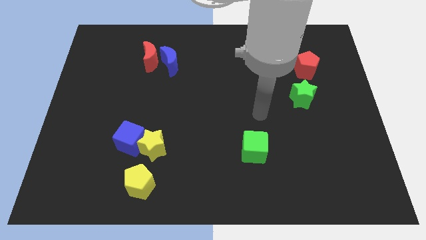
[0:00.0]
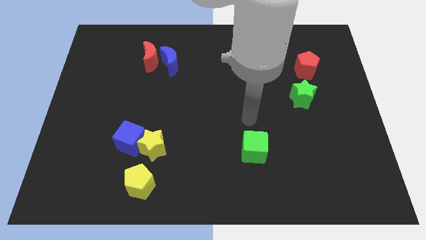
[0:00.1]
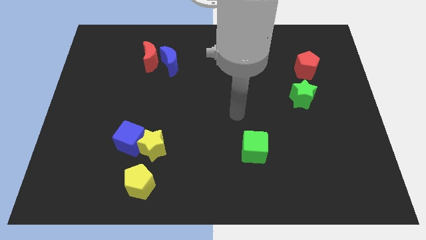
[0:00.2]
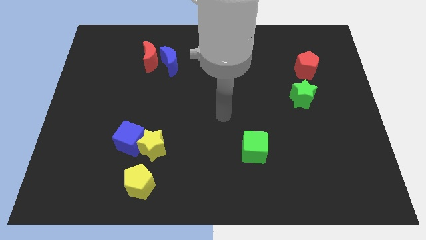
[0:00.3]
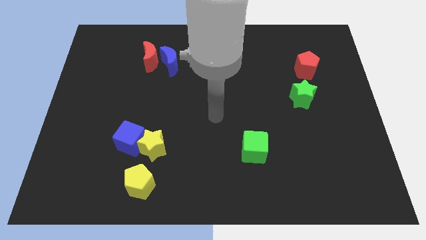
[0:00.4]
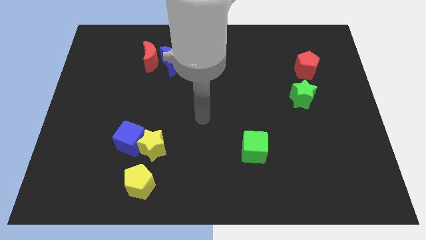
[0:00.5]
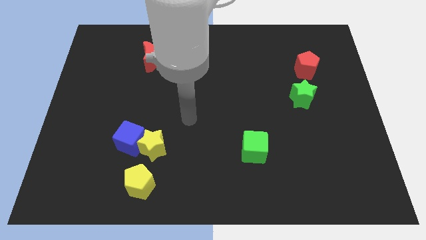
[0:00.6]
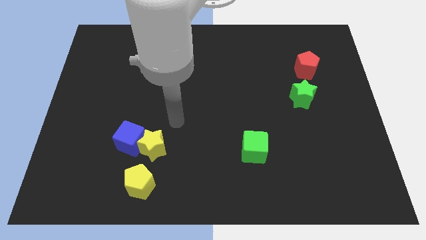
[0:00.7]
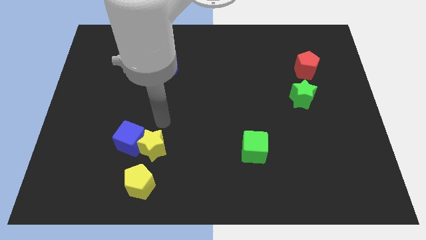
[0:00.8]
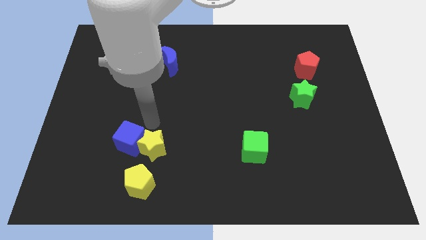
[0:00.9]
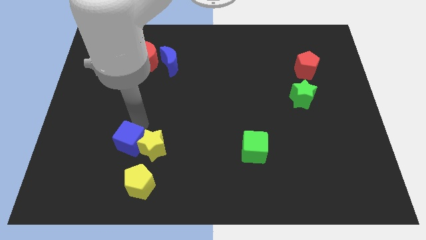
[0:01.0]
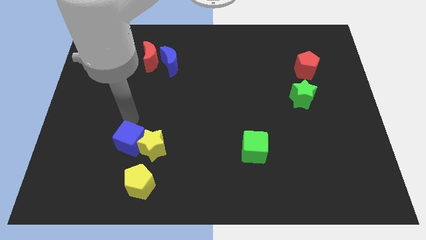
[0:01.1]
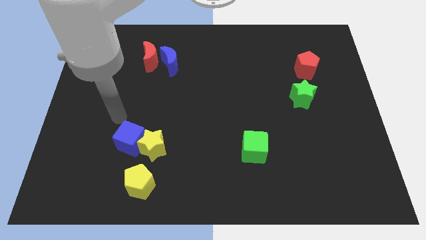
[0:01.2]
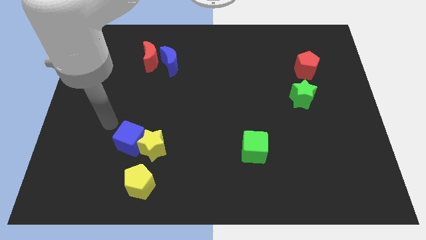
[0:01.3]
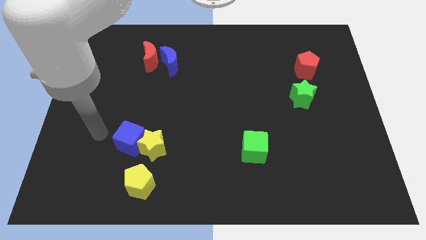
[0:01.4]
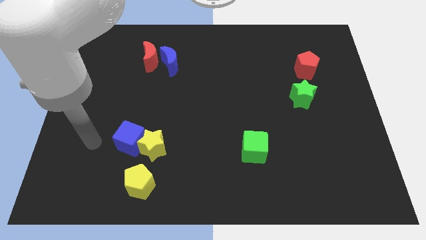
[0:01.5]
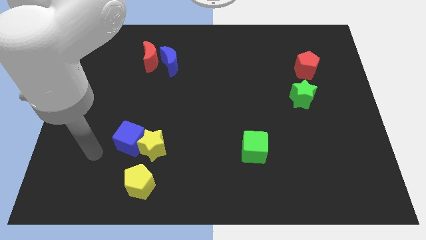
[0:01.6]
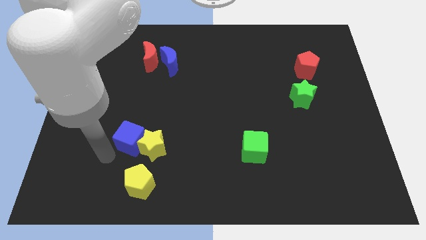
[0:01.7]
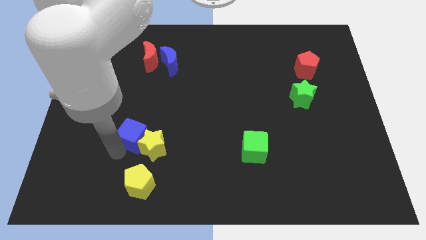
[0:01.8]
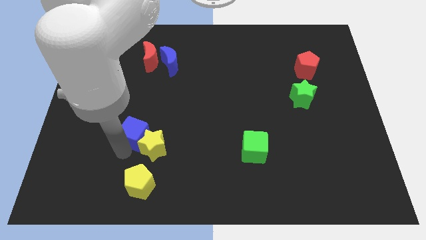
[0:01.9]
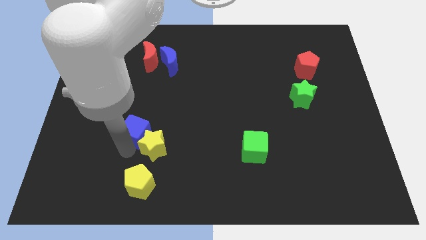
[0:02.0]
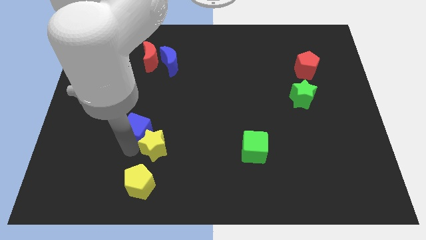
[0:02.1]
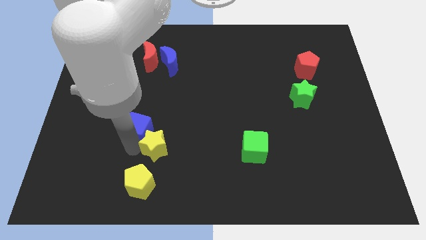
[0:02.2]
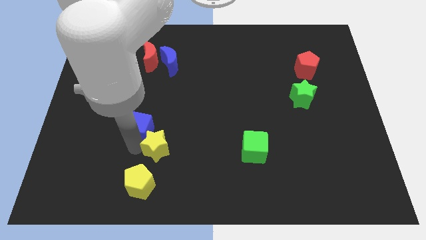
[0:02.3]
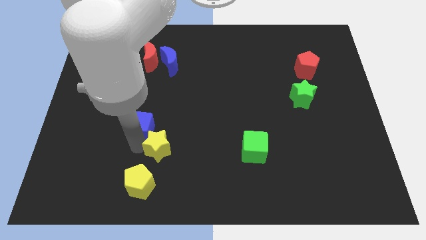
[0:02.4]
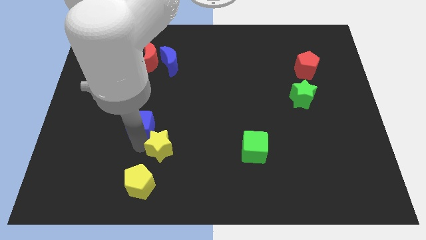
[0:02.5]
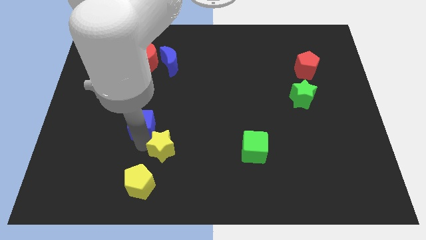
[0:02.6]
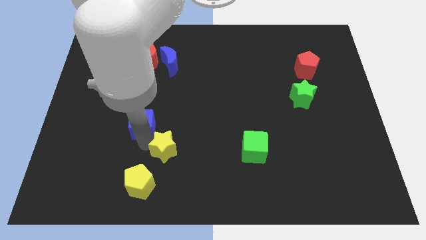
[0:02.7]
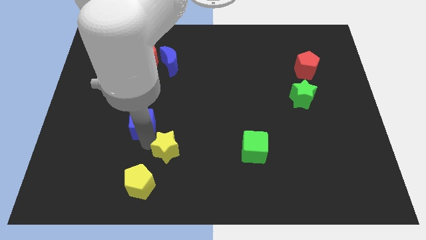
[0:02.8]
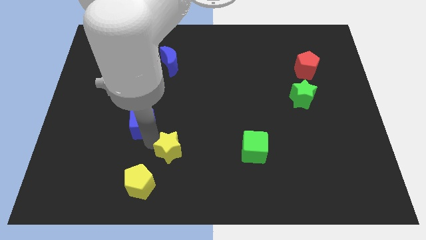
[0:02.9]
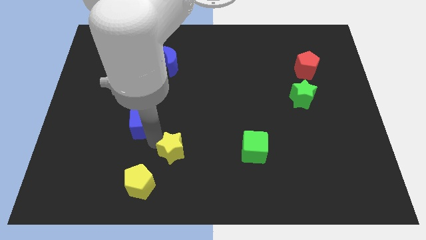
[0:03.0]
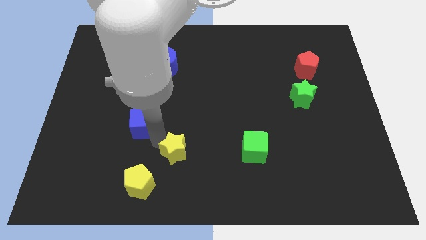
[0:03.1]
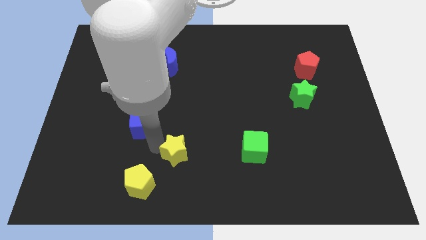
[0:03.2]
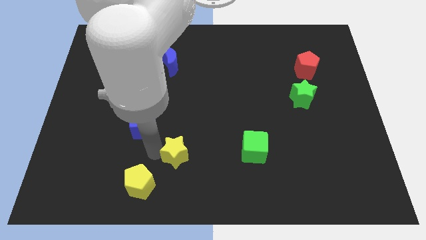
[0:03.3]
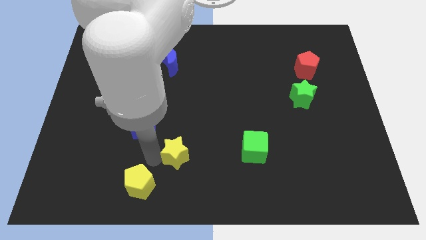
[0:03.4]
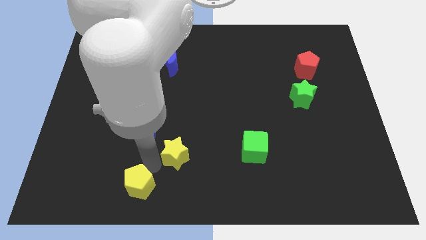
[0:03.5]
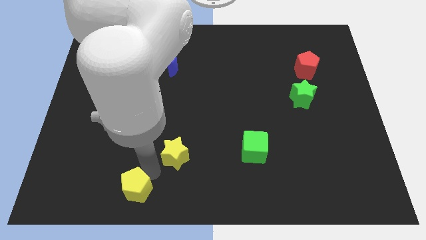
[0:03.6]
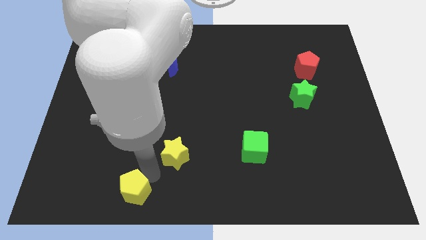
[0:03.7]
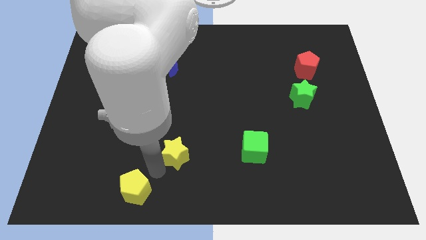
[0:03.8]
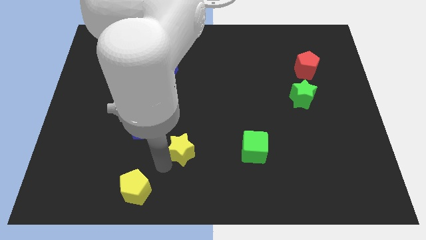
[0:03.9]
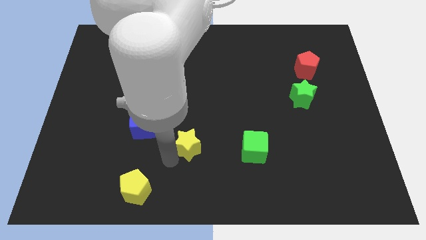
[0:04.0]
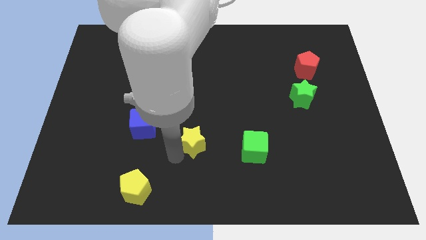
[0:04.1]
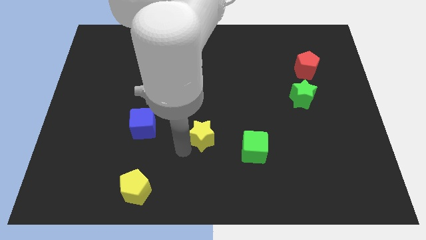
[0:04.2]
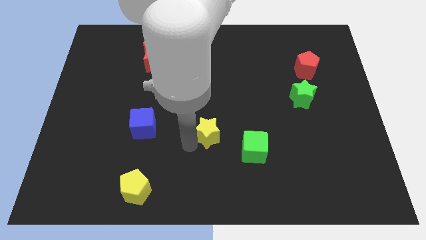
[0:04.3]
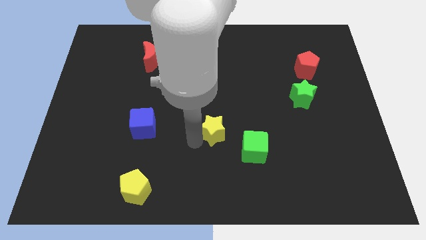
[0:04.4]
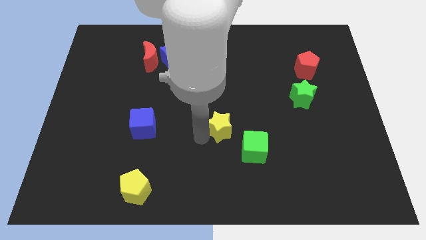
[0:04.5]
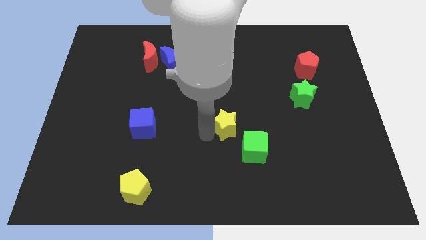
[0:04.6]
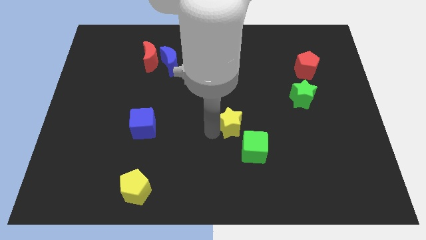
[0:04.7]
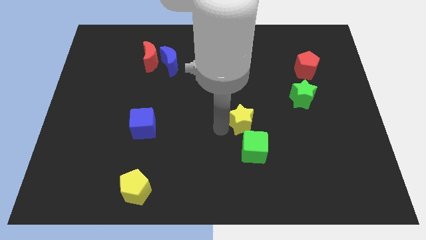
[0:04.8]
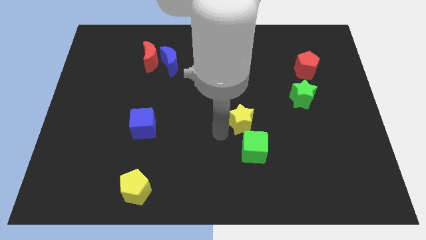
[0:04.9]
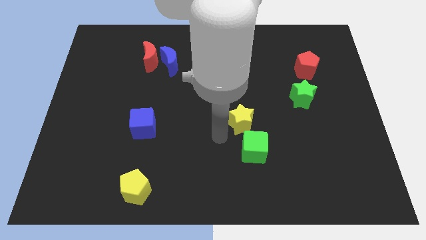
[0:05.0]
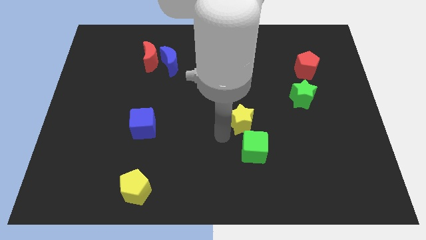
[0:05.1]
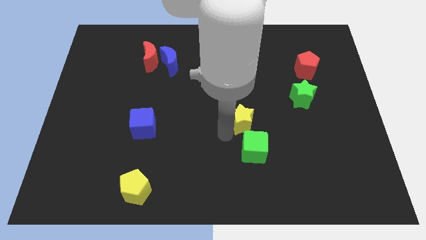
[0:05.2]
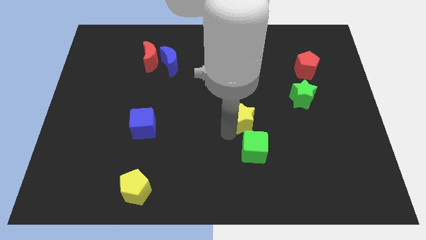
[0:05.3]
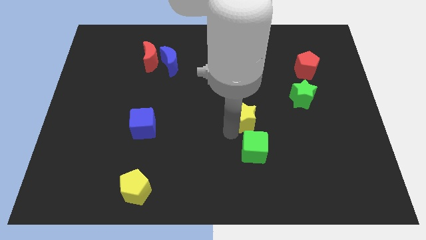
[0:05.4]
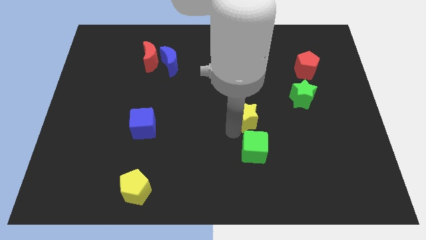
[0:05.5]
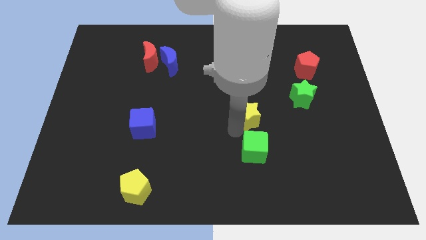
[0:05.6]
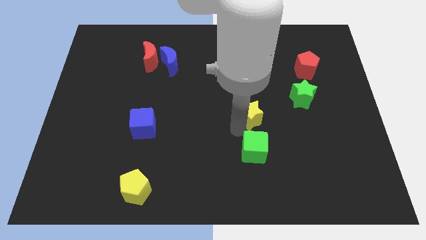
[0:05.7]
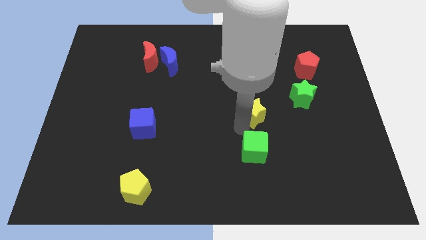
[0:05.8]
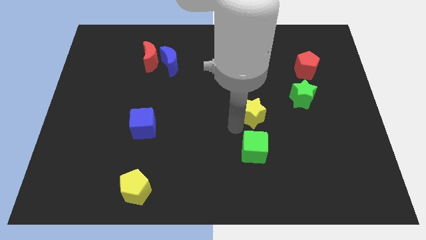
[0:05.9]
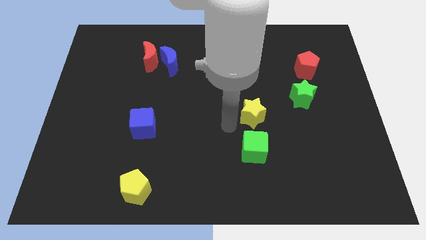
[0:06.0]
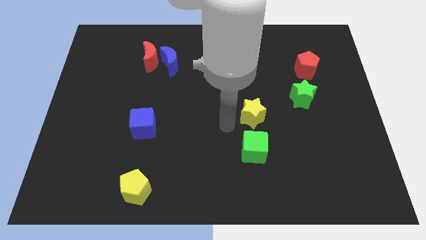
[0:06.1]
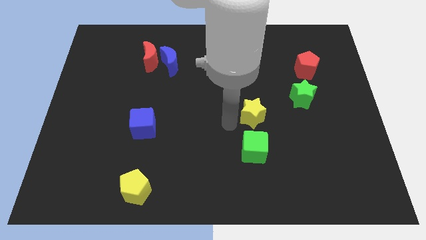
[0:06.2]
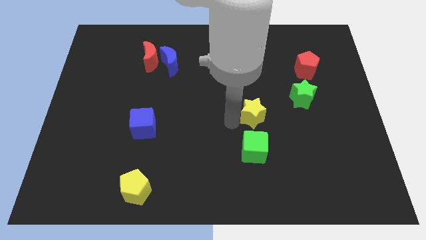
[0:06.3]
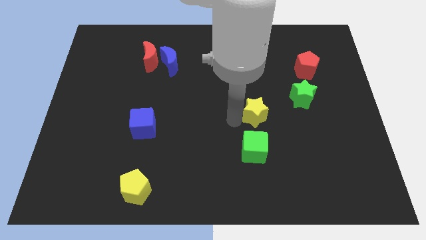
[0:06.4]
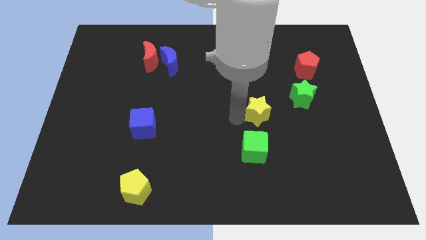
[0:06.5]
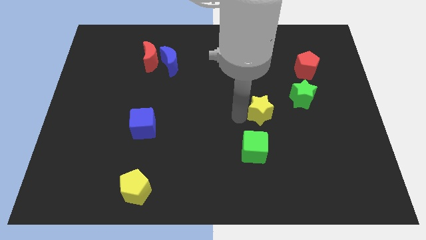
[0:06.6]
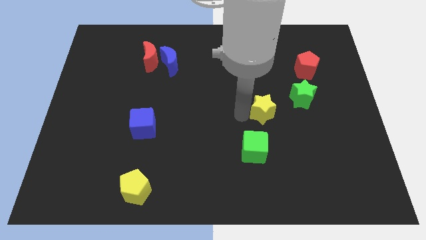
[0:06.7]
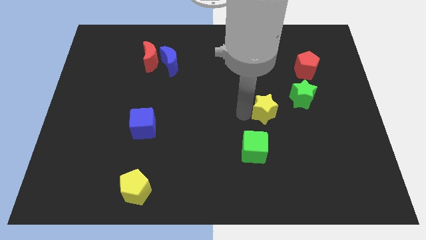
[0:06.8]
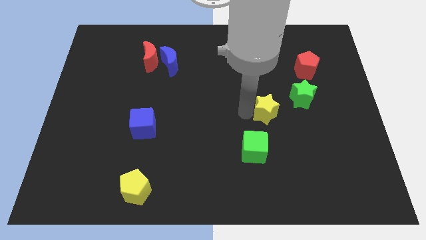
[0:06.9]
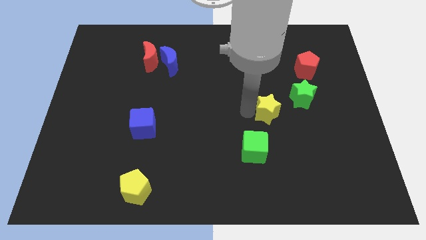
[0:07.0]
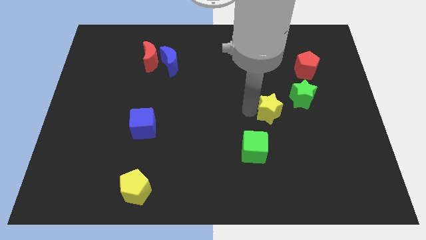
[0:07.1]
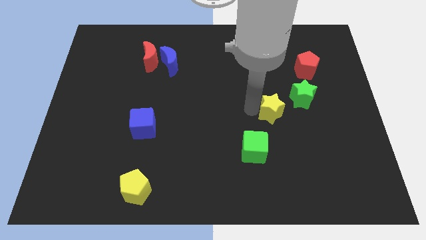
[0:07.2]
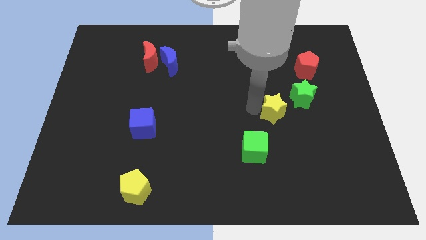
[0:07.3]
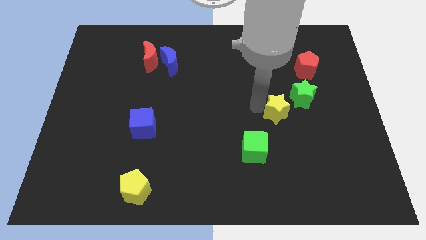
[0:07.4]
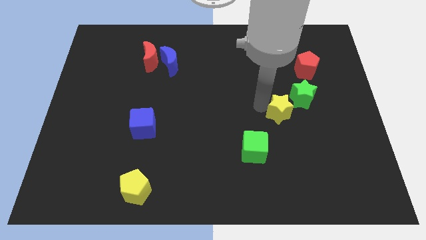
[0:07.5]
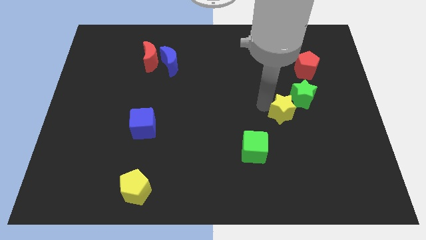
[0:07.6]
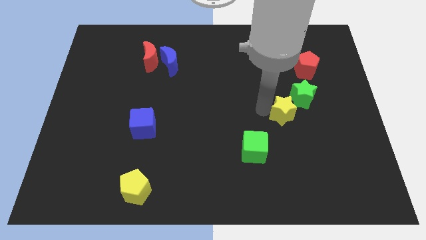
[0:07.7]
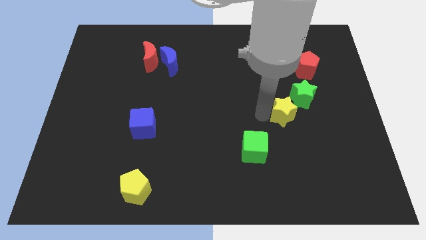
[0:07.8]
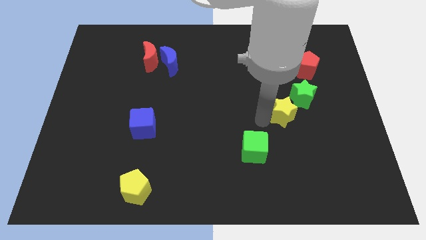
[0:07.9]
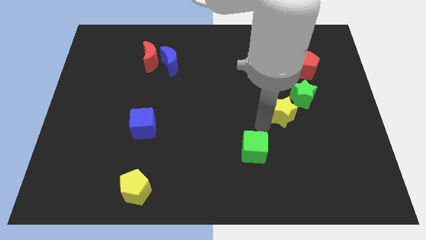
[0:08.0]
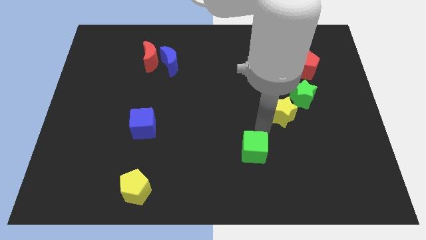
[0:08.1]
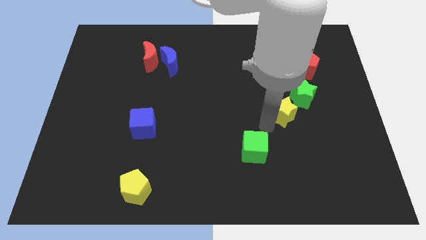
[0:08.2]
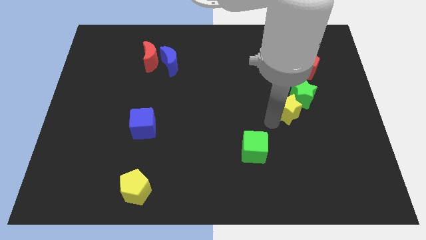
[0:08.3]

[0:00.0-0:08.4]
push the yellow star to the green star
